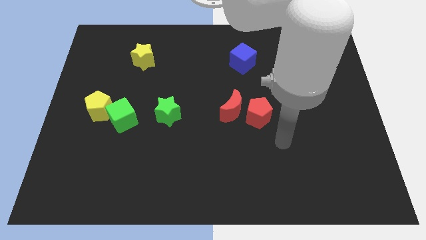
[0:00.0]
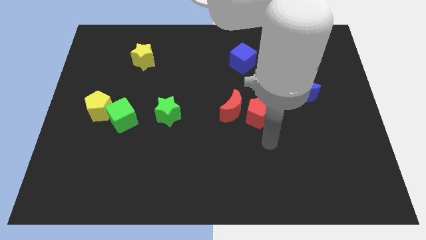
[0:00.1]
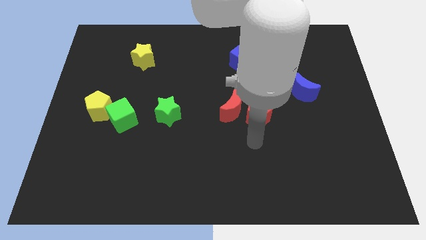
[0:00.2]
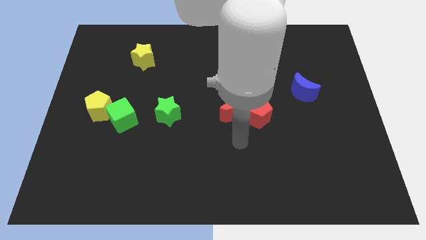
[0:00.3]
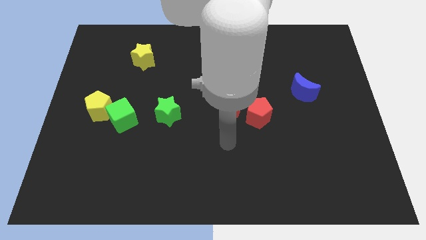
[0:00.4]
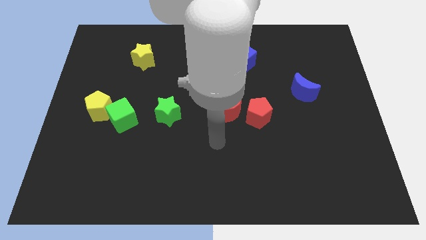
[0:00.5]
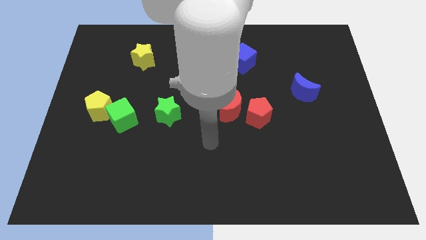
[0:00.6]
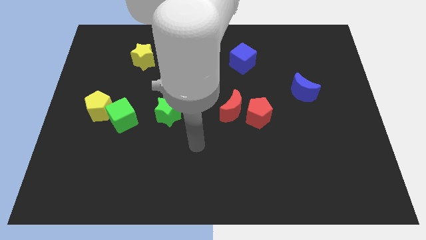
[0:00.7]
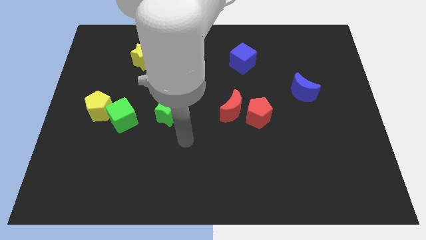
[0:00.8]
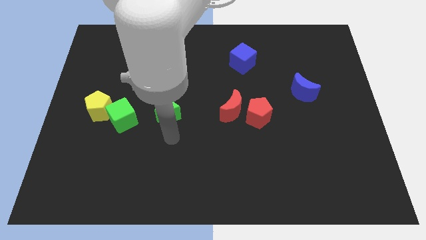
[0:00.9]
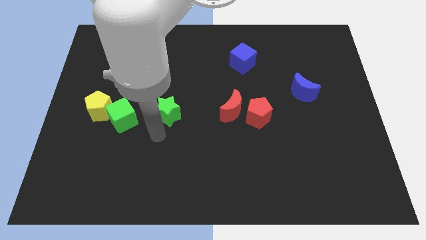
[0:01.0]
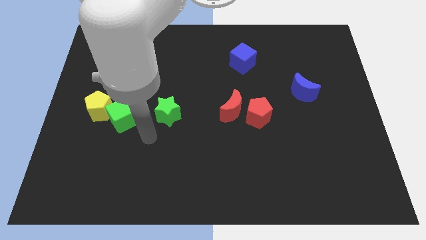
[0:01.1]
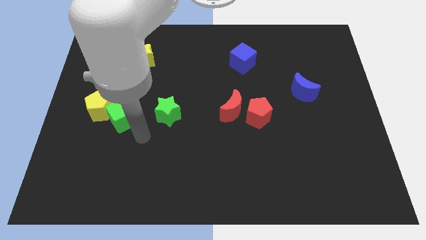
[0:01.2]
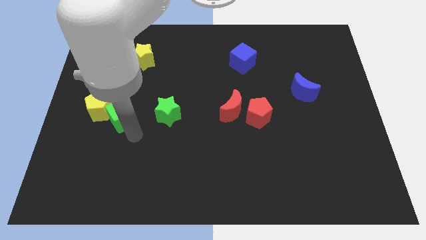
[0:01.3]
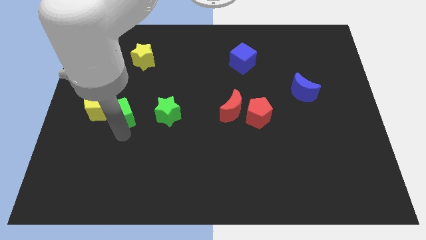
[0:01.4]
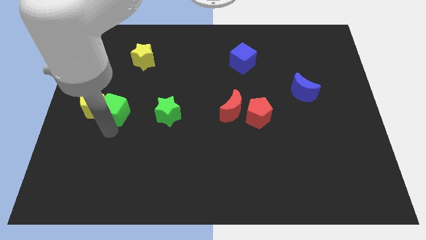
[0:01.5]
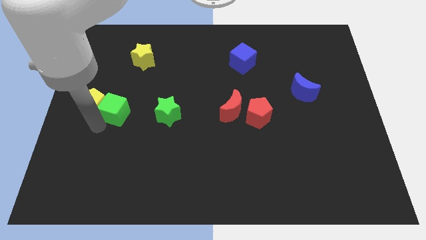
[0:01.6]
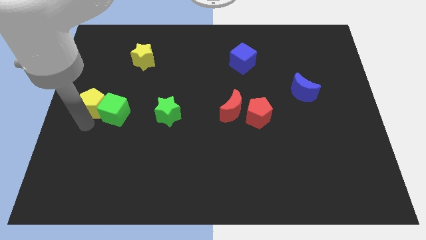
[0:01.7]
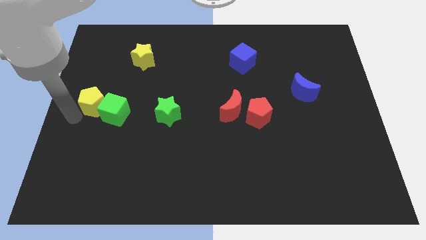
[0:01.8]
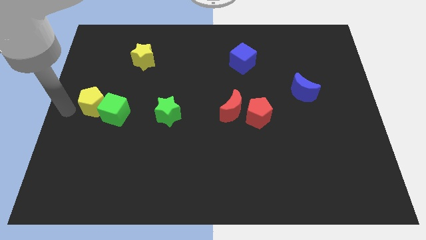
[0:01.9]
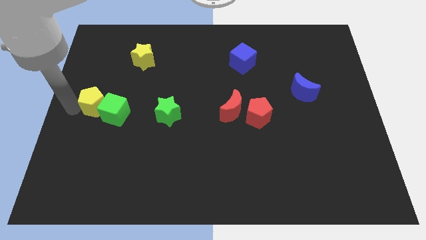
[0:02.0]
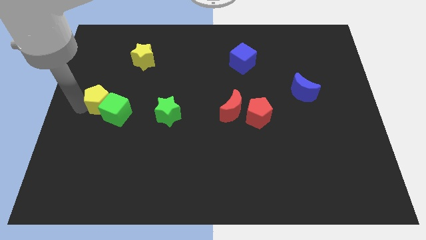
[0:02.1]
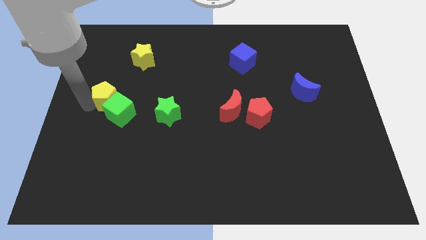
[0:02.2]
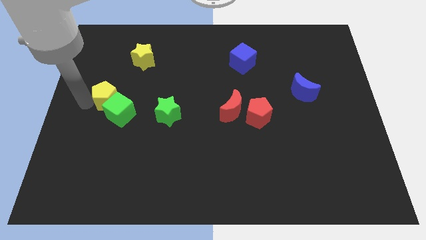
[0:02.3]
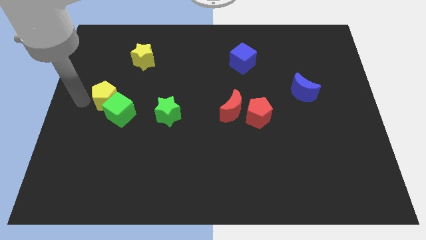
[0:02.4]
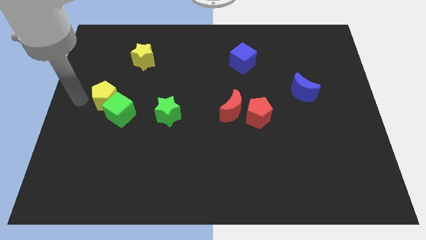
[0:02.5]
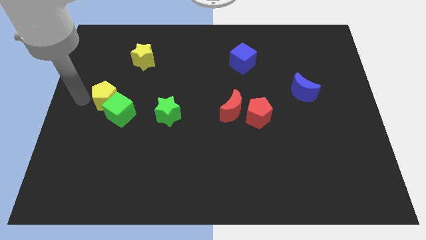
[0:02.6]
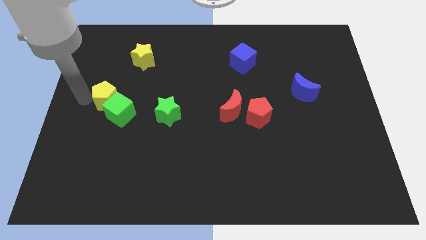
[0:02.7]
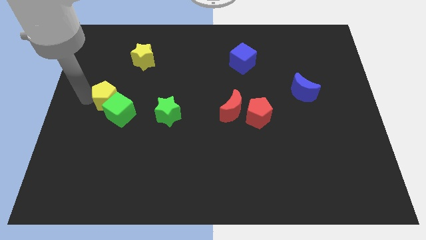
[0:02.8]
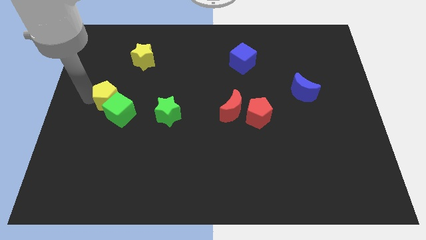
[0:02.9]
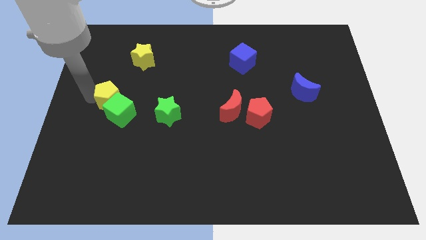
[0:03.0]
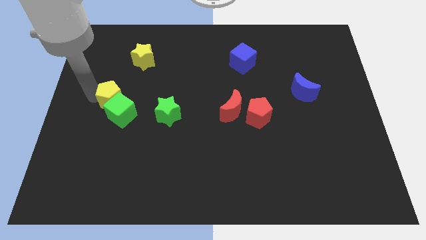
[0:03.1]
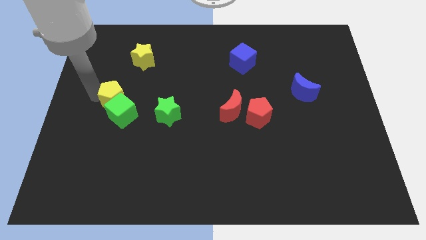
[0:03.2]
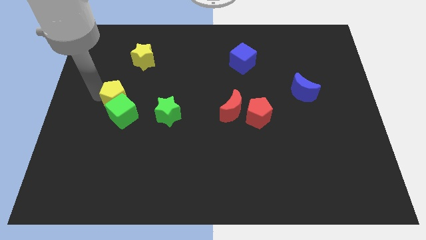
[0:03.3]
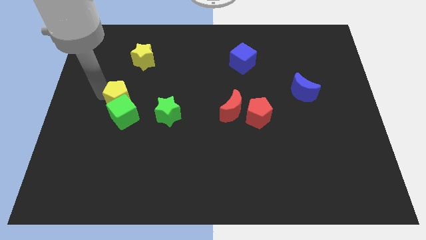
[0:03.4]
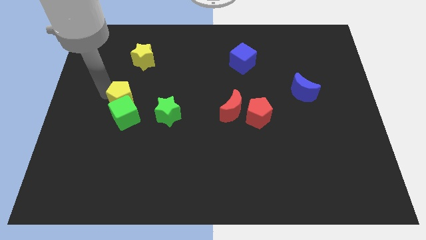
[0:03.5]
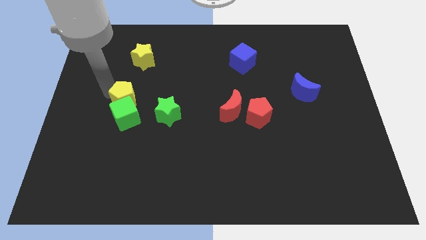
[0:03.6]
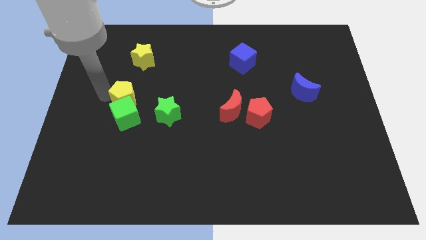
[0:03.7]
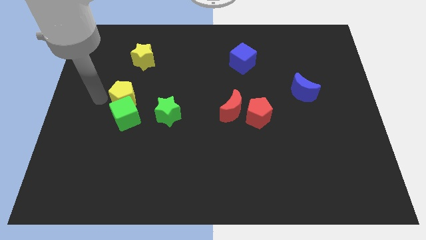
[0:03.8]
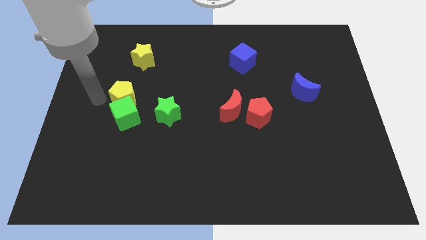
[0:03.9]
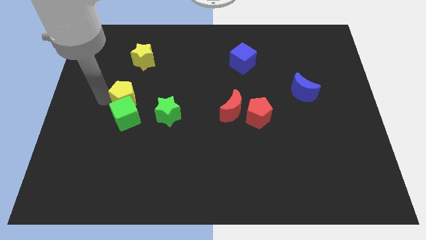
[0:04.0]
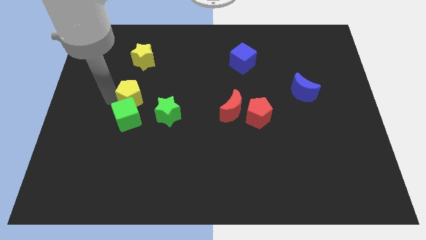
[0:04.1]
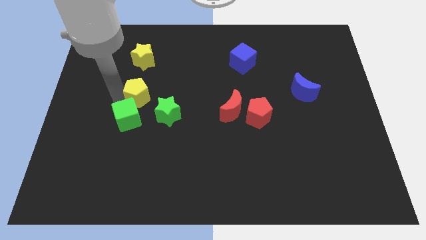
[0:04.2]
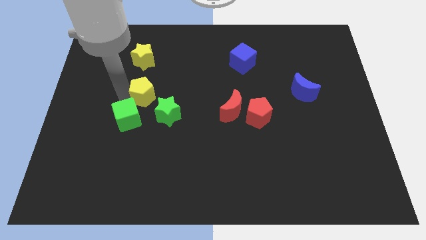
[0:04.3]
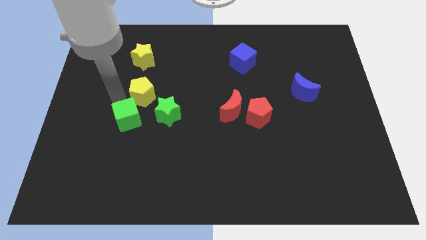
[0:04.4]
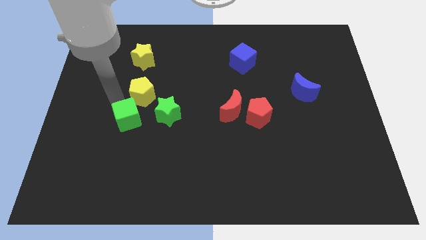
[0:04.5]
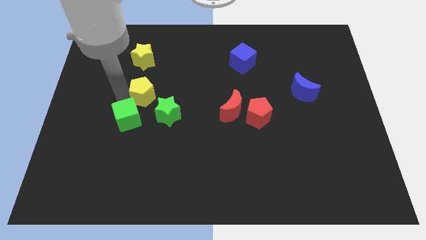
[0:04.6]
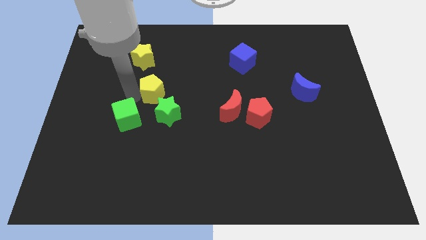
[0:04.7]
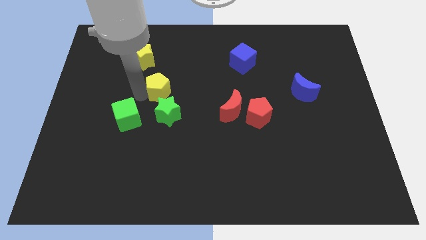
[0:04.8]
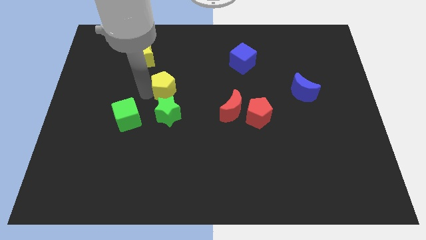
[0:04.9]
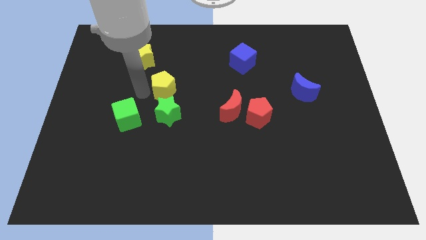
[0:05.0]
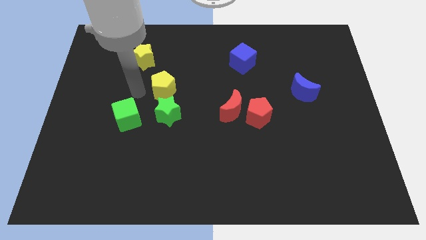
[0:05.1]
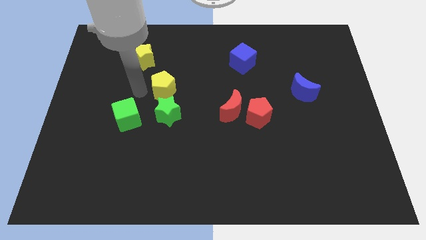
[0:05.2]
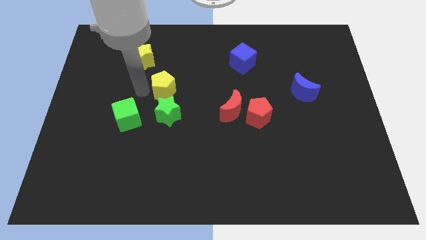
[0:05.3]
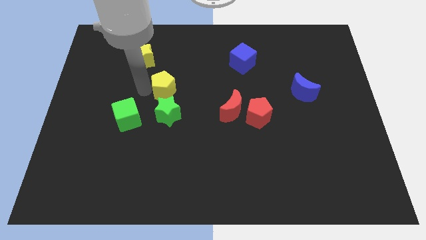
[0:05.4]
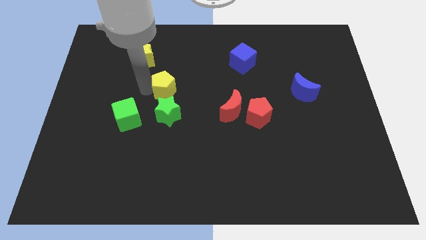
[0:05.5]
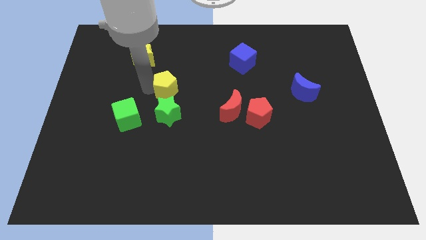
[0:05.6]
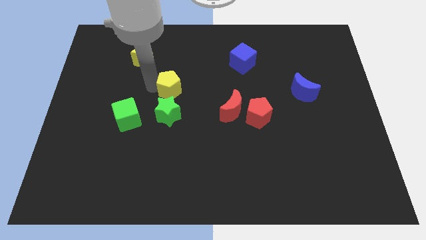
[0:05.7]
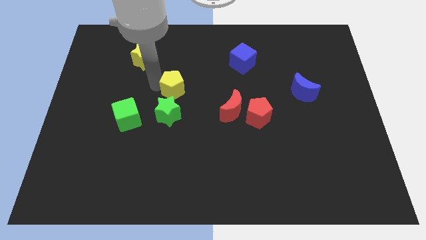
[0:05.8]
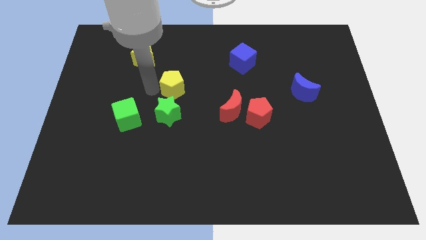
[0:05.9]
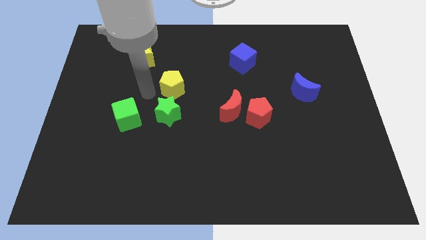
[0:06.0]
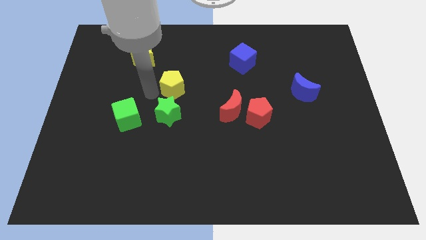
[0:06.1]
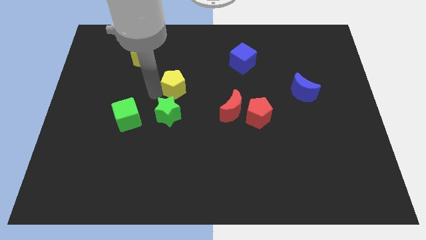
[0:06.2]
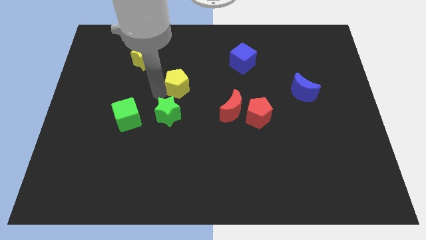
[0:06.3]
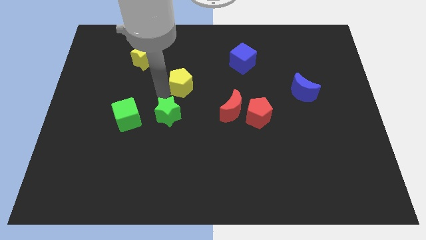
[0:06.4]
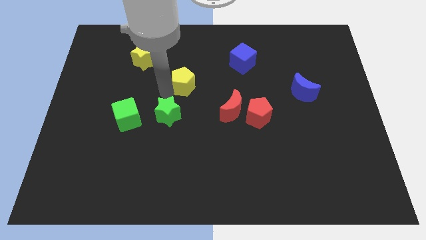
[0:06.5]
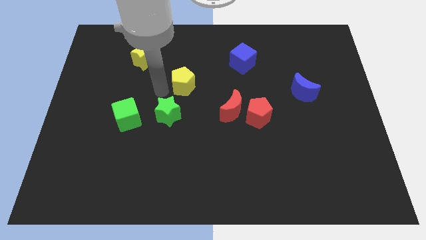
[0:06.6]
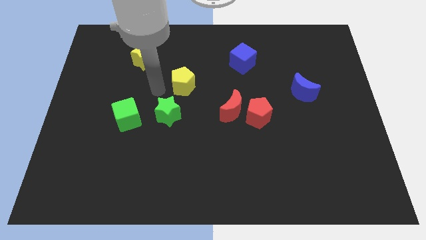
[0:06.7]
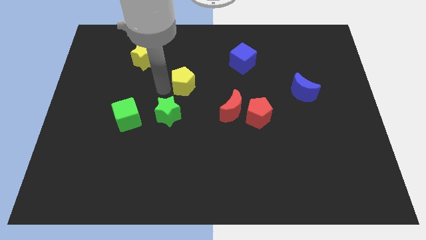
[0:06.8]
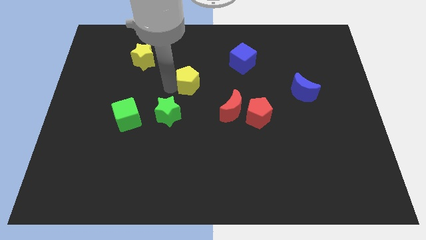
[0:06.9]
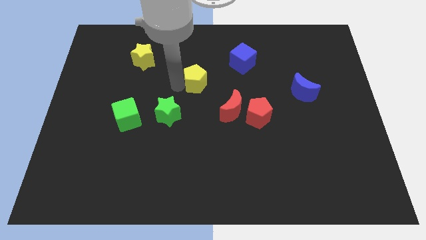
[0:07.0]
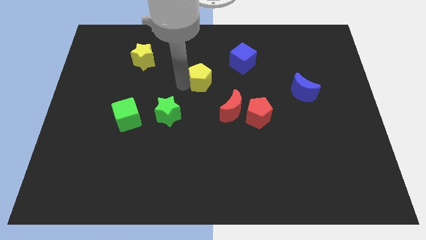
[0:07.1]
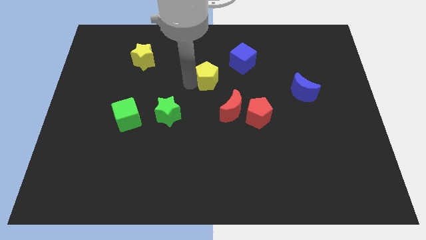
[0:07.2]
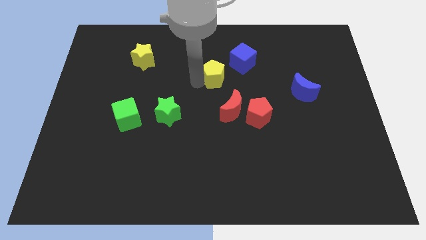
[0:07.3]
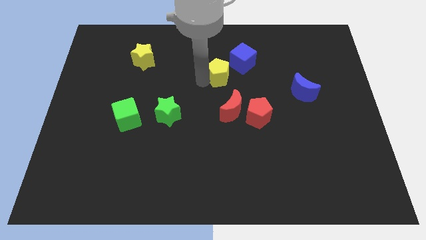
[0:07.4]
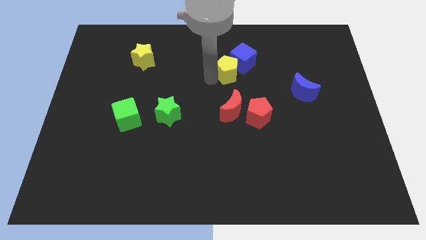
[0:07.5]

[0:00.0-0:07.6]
put the yellow pentagon to the blue cube
